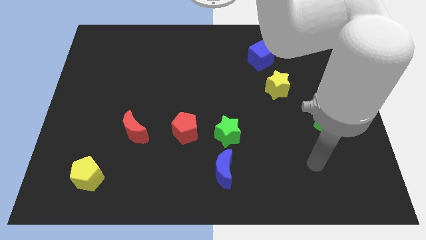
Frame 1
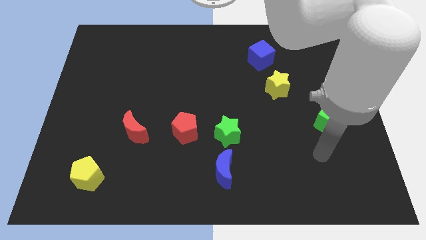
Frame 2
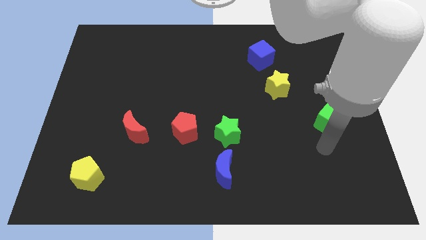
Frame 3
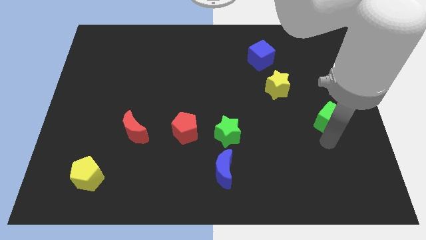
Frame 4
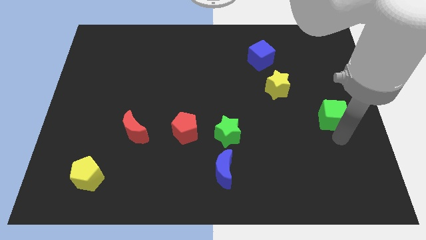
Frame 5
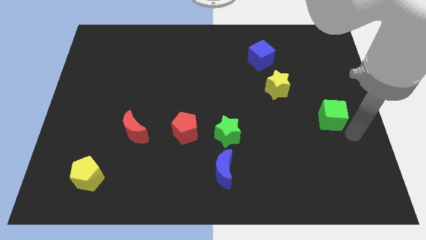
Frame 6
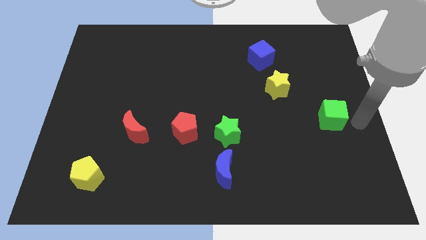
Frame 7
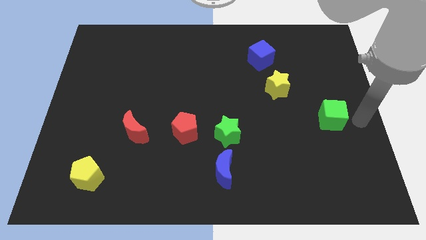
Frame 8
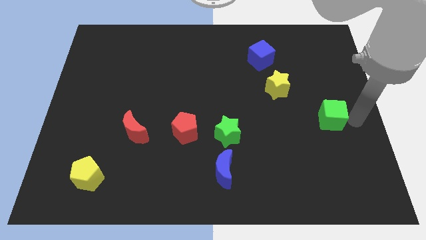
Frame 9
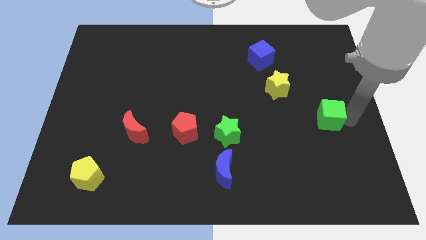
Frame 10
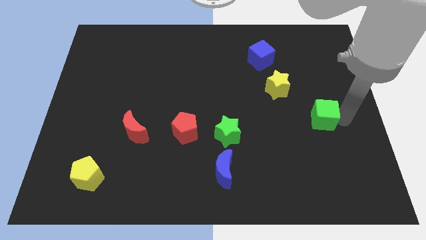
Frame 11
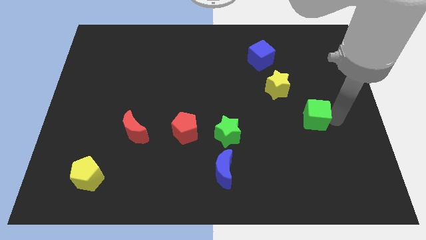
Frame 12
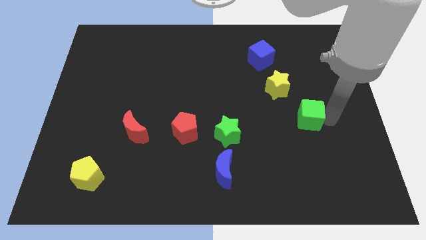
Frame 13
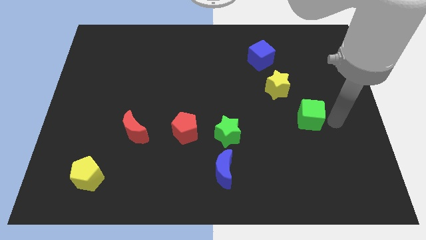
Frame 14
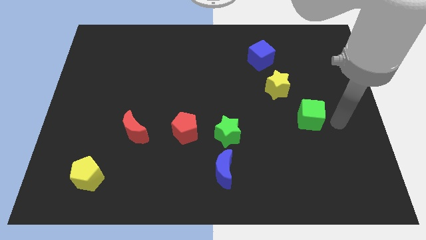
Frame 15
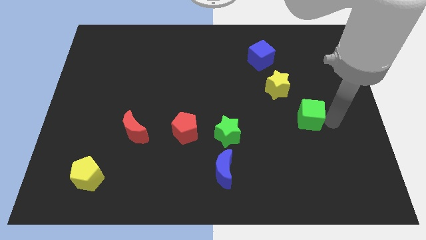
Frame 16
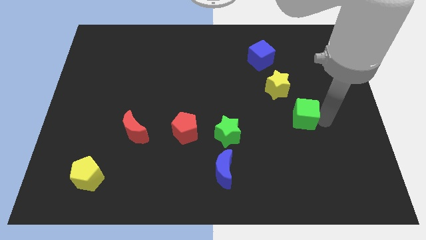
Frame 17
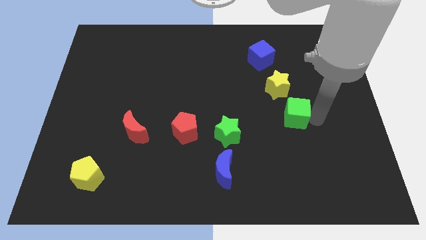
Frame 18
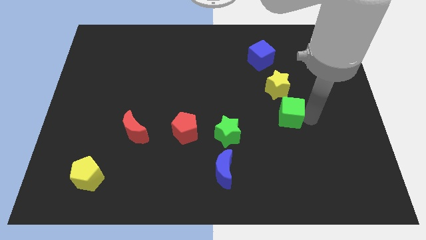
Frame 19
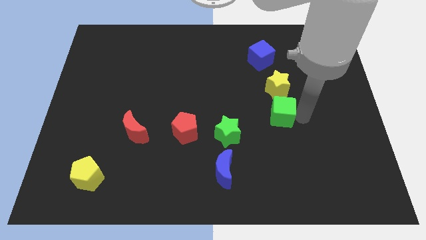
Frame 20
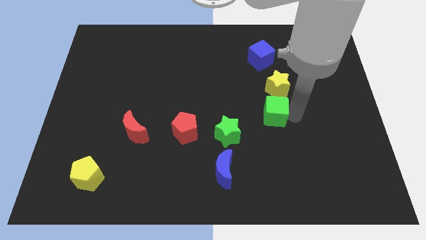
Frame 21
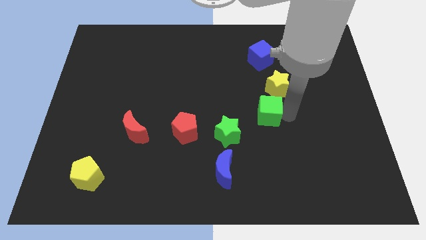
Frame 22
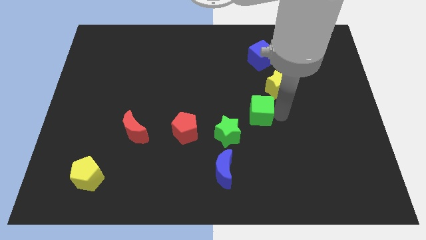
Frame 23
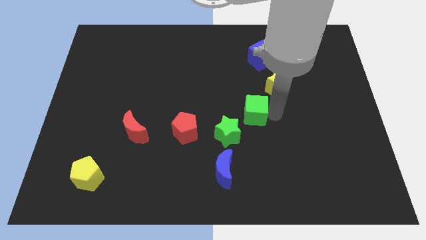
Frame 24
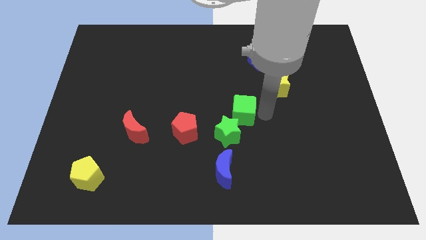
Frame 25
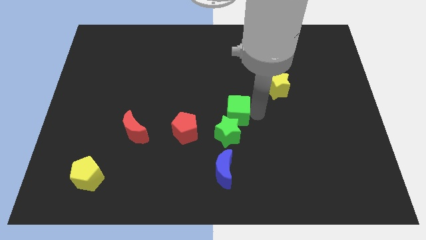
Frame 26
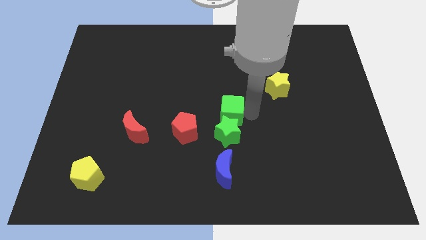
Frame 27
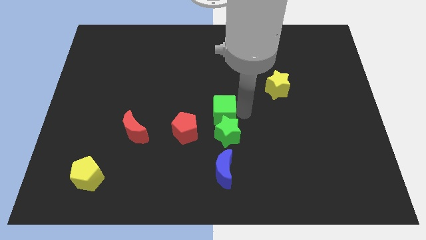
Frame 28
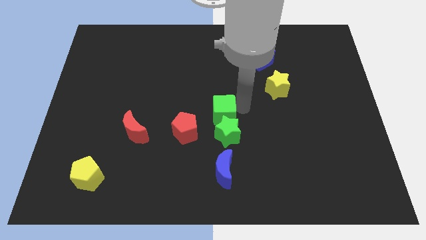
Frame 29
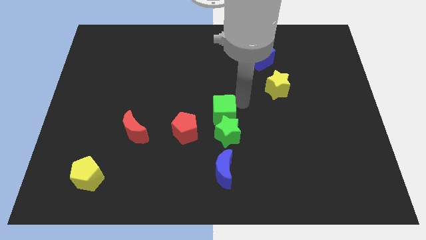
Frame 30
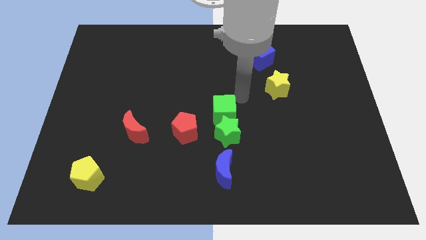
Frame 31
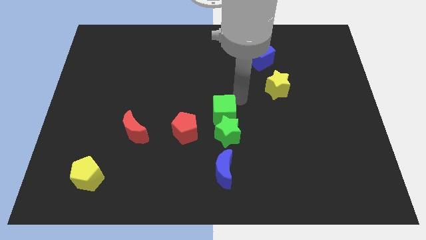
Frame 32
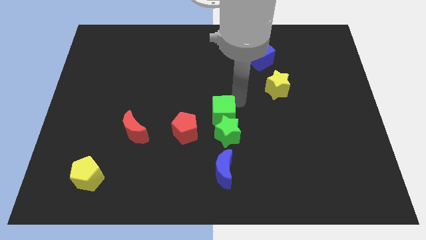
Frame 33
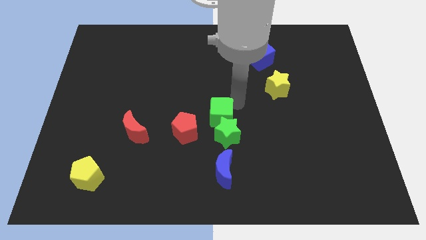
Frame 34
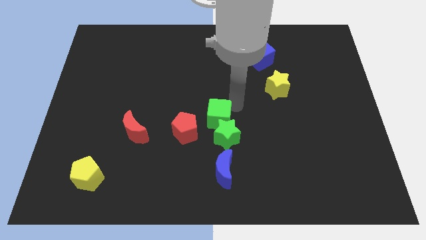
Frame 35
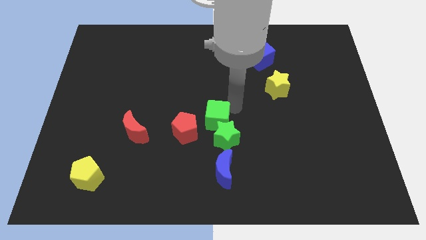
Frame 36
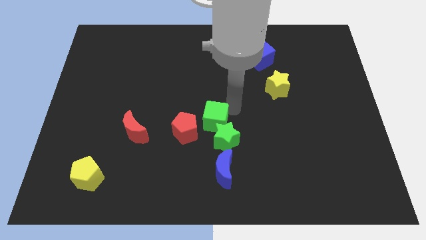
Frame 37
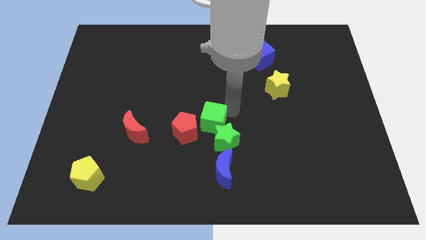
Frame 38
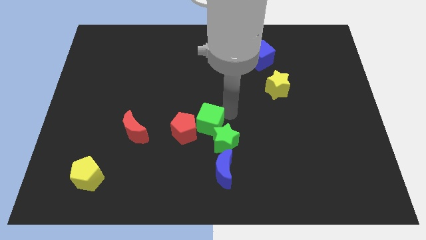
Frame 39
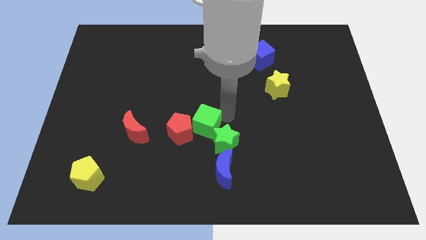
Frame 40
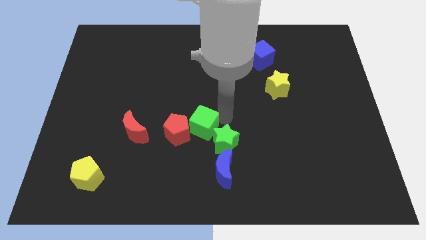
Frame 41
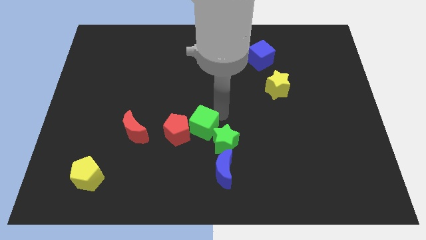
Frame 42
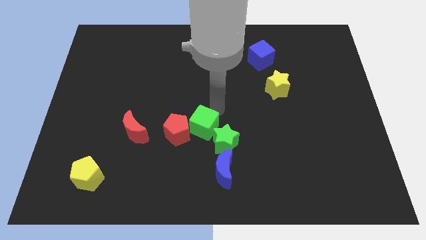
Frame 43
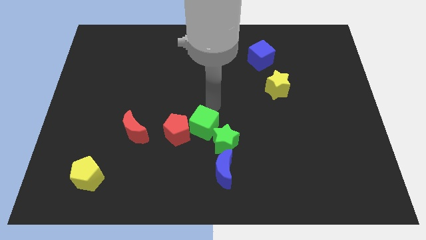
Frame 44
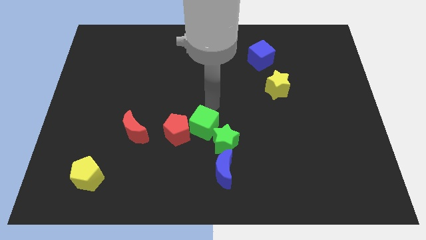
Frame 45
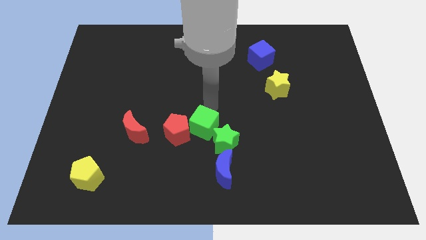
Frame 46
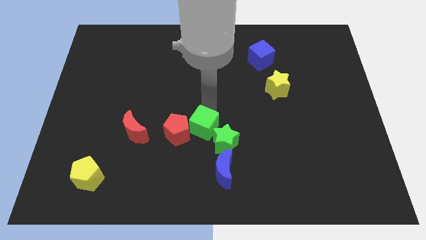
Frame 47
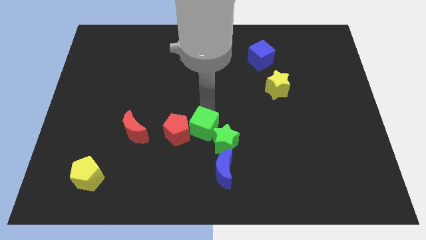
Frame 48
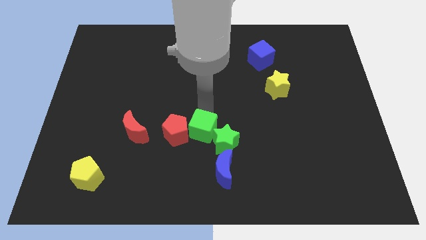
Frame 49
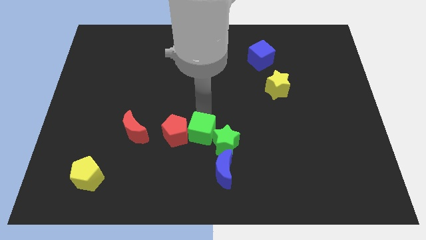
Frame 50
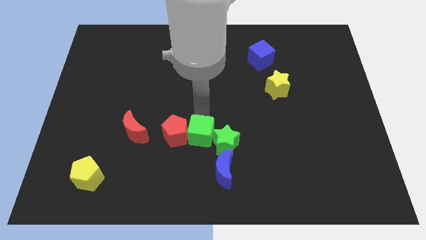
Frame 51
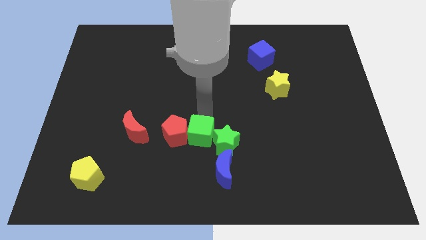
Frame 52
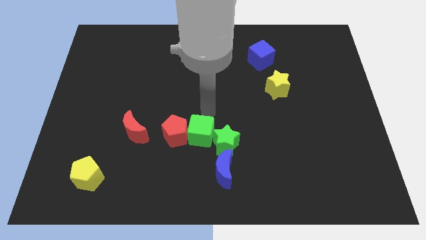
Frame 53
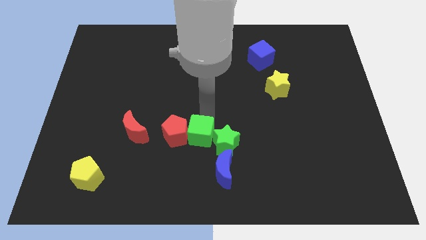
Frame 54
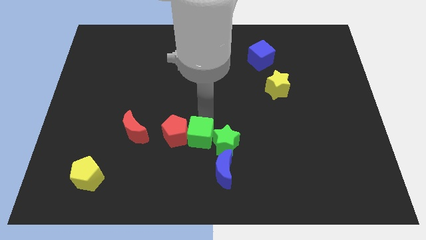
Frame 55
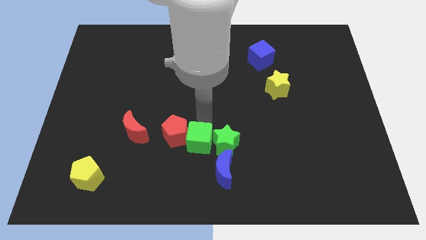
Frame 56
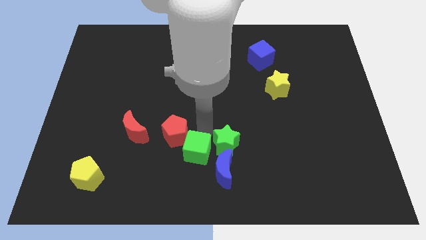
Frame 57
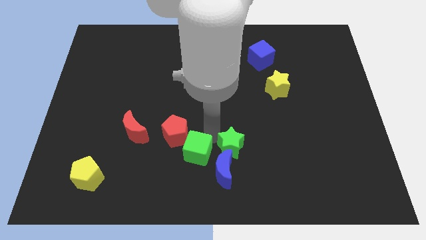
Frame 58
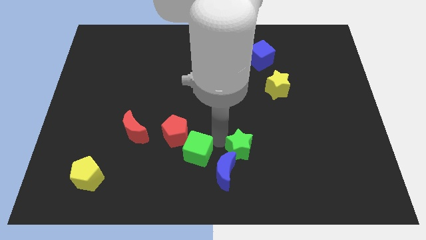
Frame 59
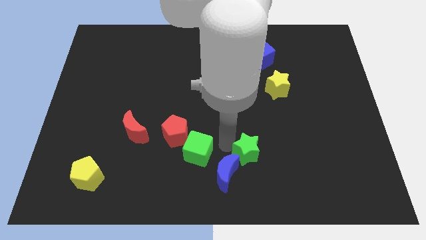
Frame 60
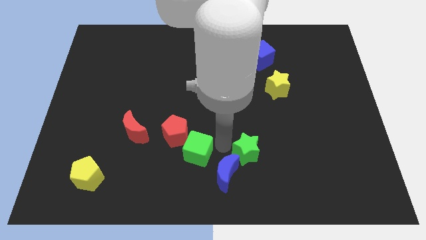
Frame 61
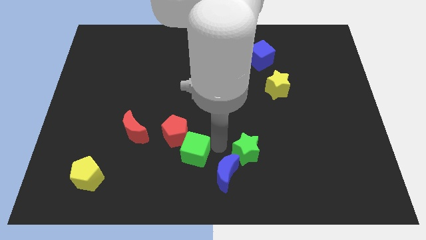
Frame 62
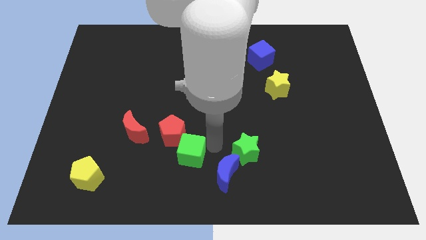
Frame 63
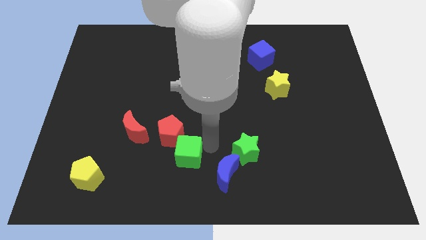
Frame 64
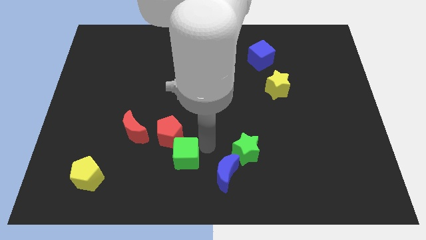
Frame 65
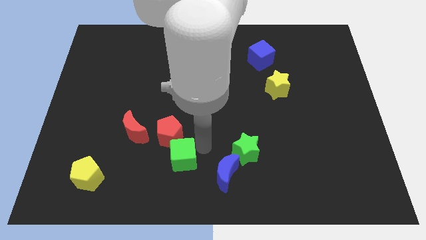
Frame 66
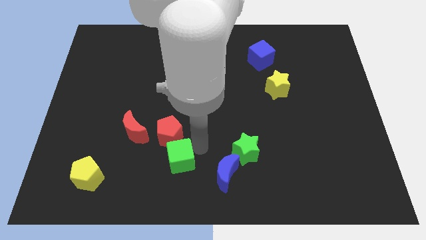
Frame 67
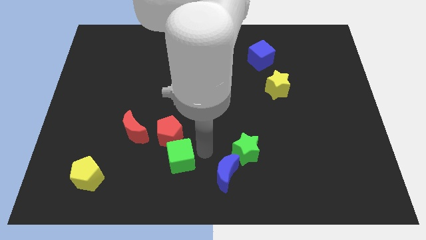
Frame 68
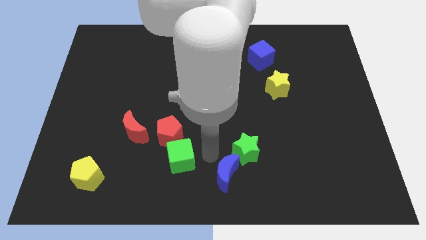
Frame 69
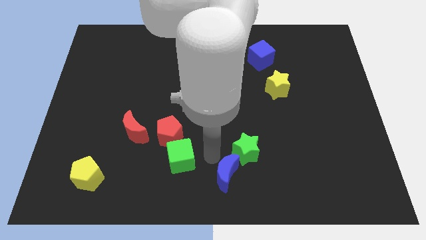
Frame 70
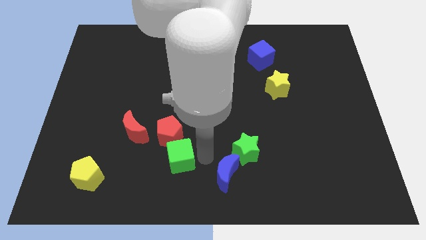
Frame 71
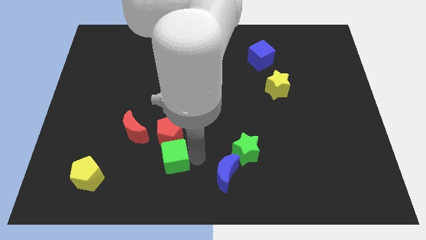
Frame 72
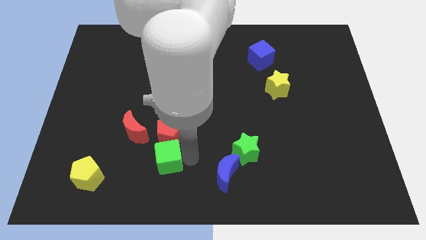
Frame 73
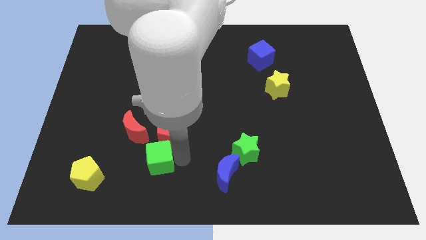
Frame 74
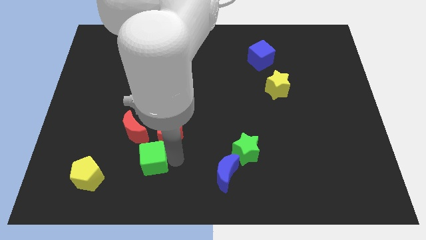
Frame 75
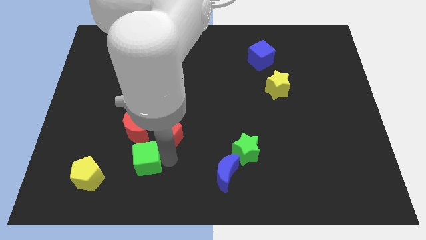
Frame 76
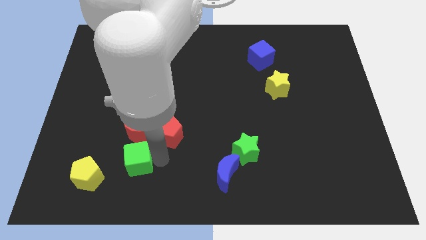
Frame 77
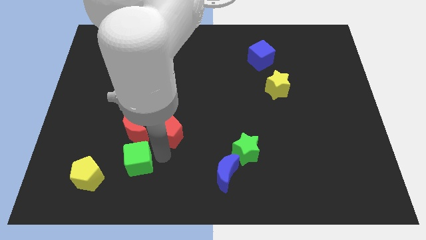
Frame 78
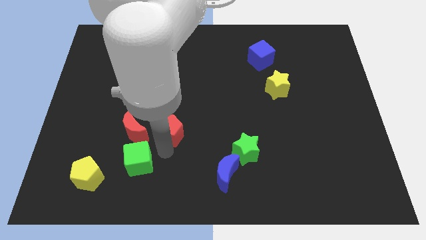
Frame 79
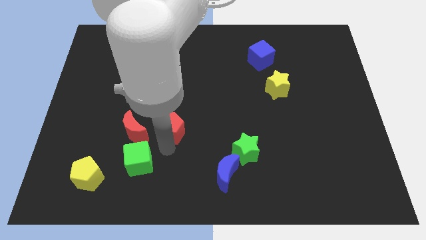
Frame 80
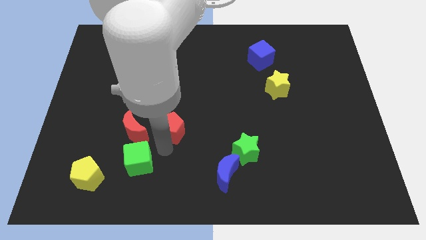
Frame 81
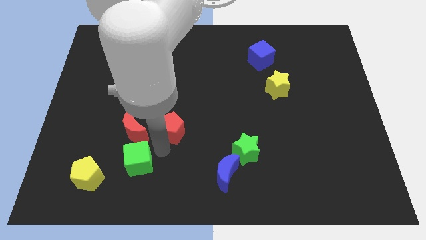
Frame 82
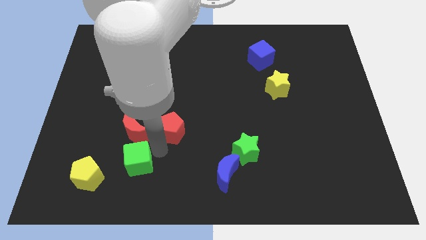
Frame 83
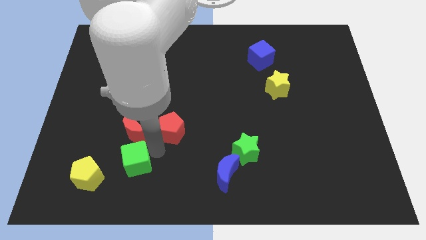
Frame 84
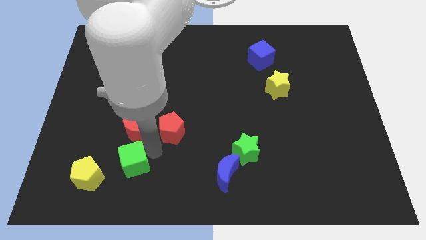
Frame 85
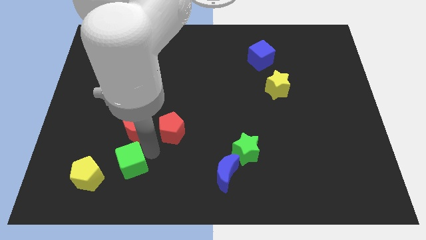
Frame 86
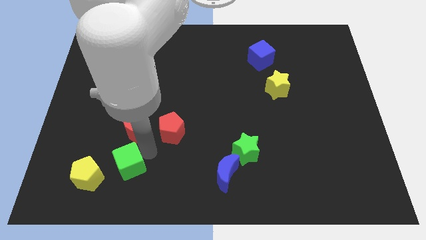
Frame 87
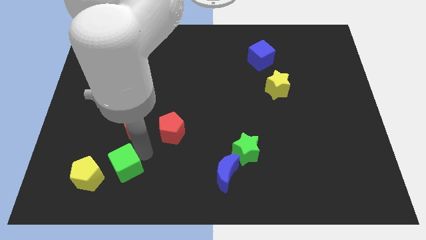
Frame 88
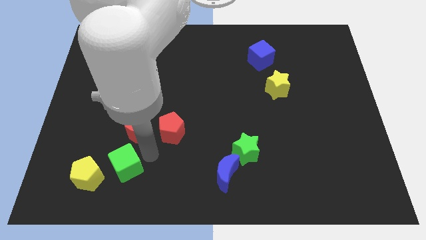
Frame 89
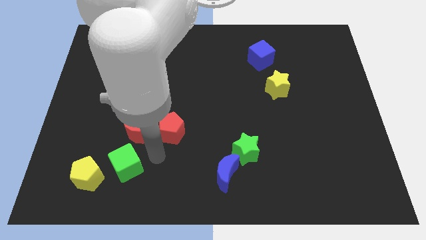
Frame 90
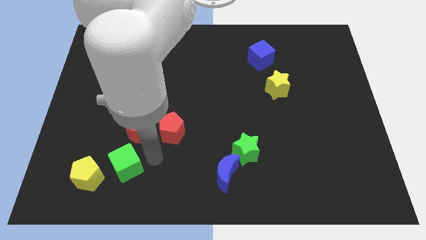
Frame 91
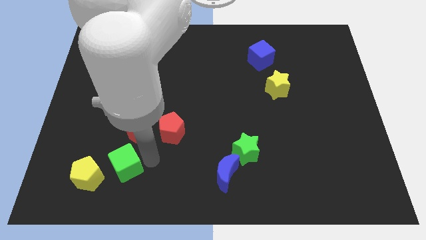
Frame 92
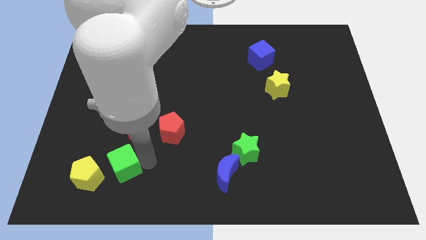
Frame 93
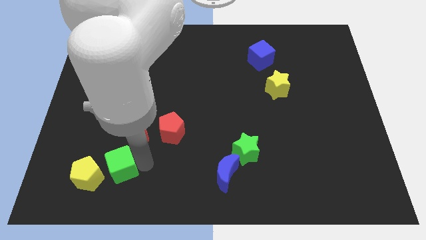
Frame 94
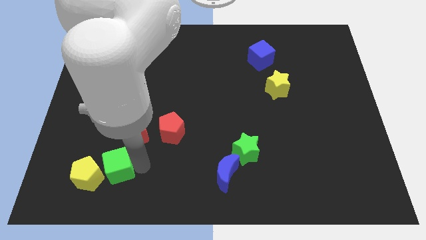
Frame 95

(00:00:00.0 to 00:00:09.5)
put the green cube next to the yellow pentagon
